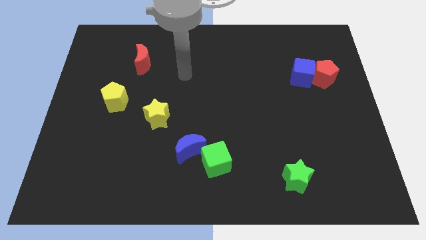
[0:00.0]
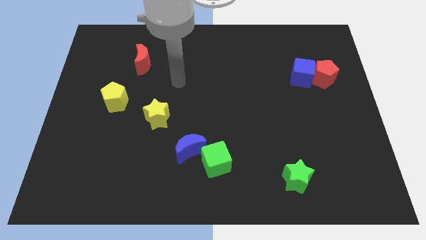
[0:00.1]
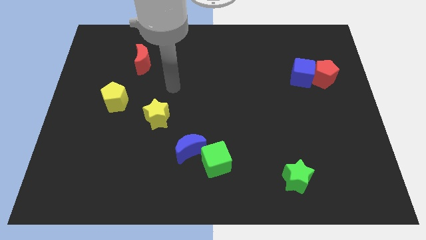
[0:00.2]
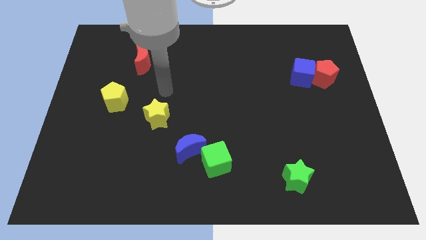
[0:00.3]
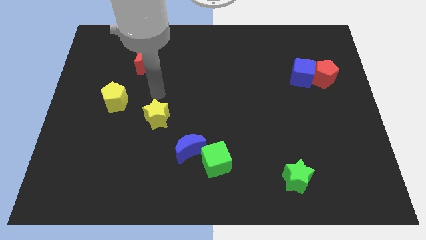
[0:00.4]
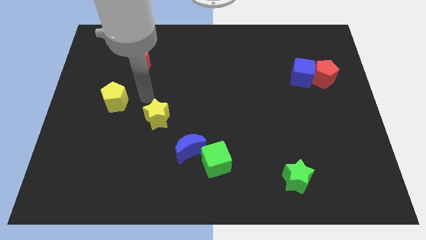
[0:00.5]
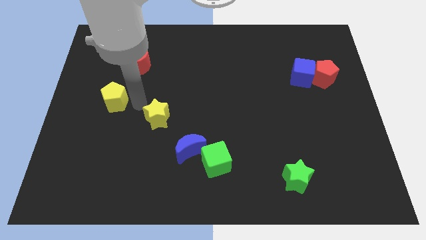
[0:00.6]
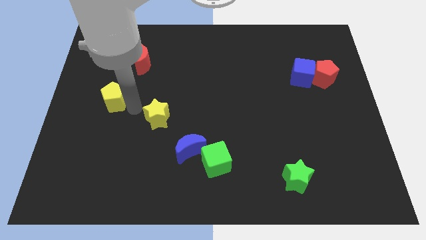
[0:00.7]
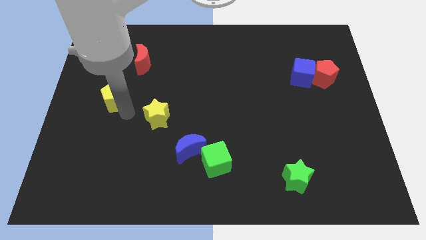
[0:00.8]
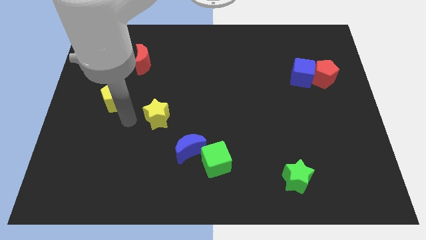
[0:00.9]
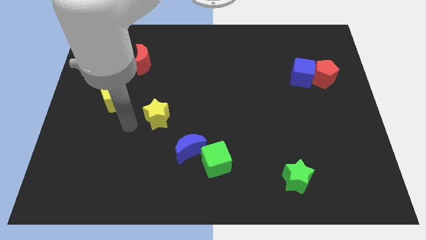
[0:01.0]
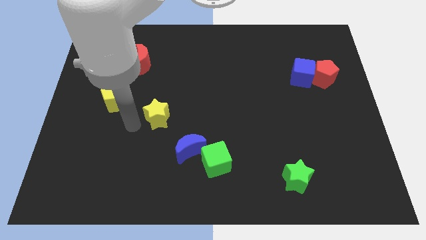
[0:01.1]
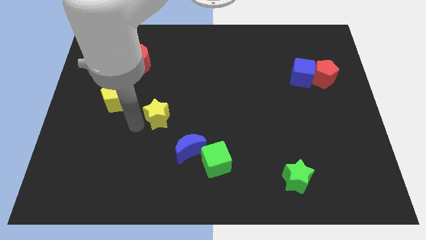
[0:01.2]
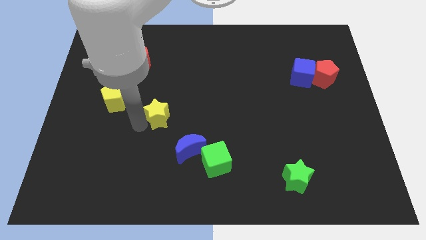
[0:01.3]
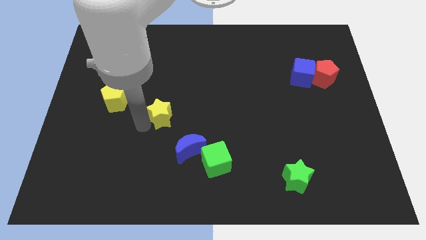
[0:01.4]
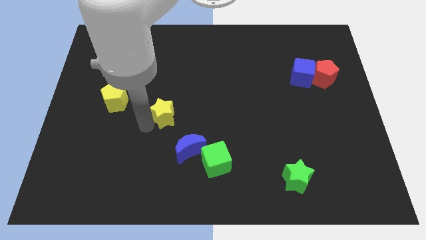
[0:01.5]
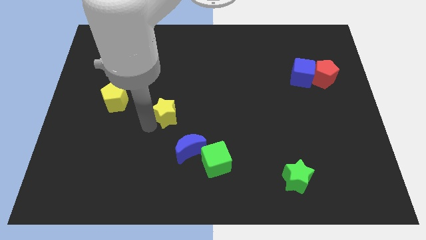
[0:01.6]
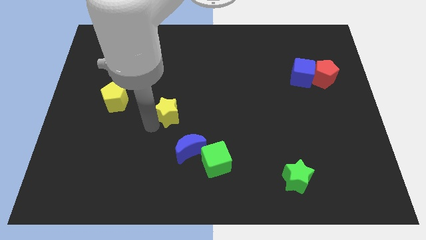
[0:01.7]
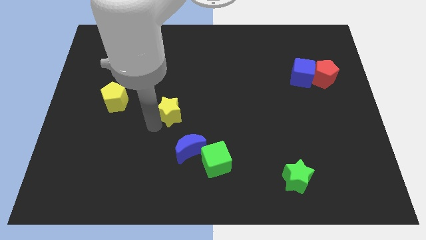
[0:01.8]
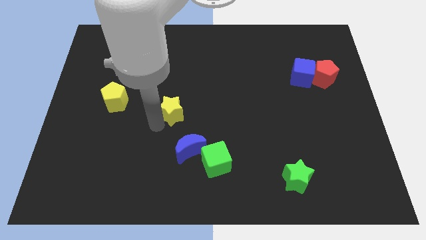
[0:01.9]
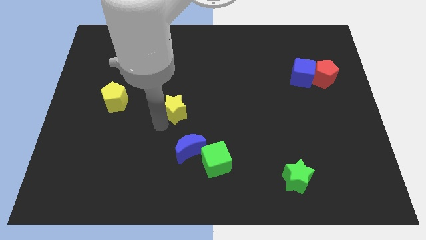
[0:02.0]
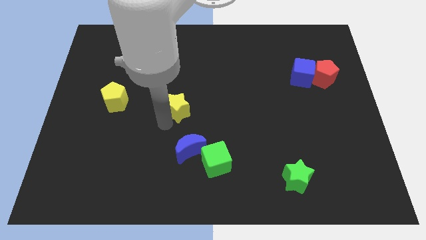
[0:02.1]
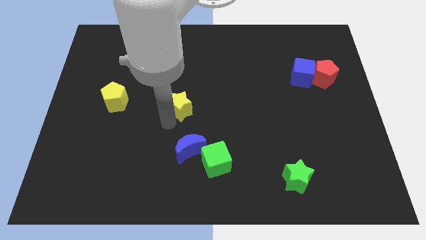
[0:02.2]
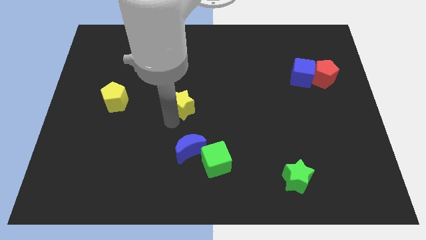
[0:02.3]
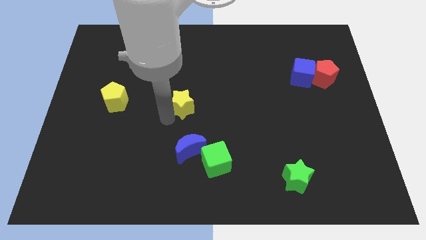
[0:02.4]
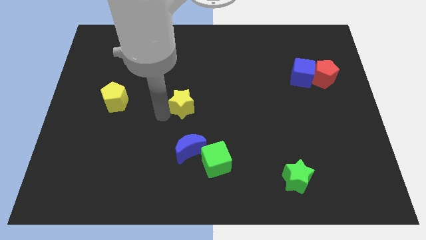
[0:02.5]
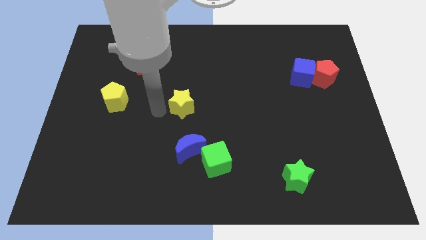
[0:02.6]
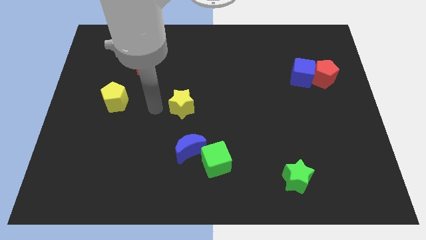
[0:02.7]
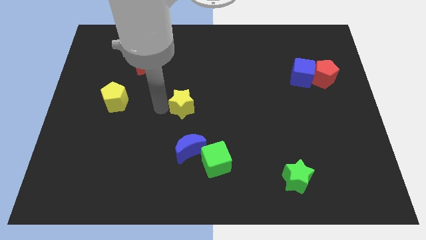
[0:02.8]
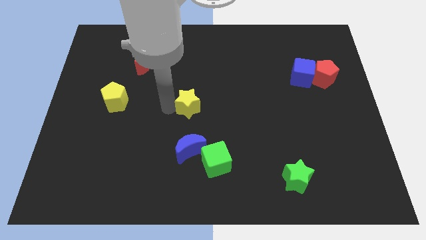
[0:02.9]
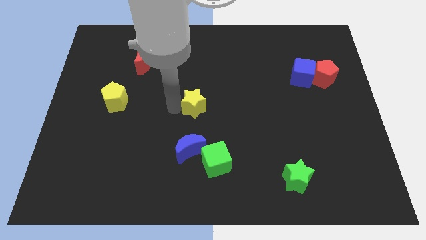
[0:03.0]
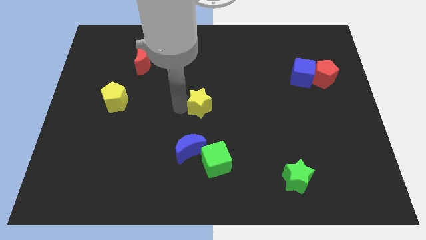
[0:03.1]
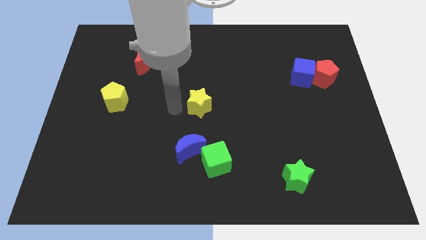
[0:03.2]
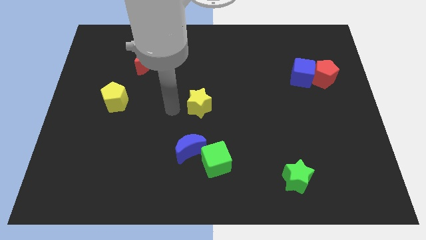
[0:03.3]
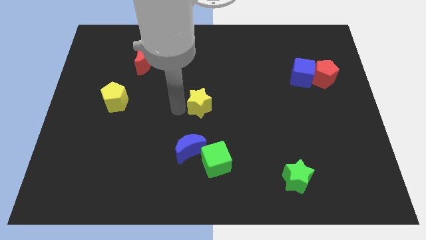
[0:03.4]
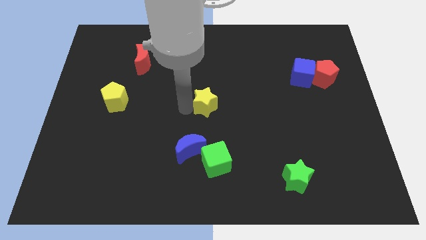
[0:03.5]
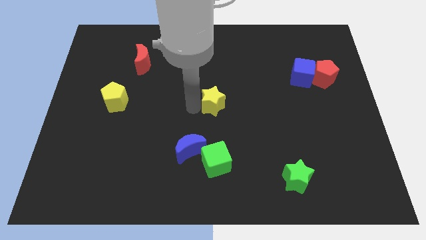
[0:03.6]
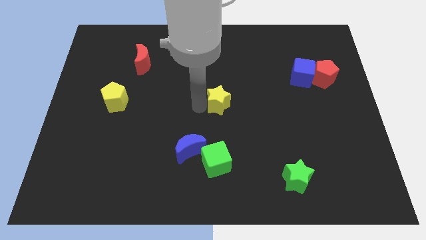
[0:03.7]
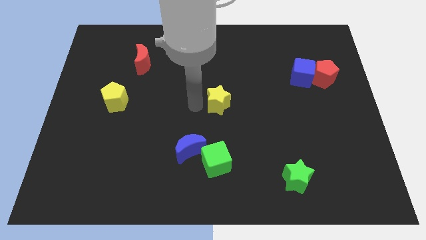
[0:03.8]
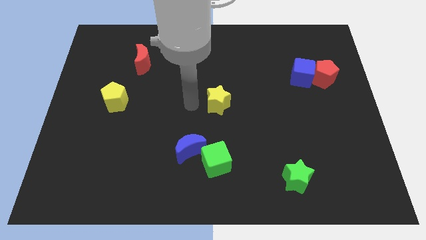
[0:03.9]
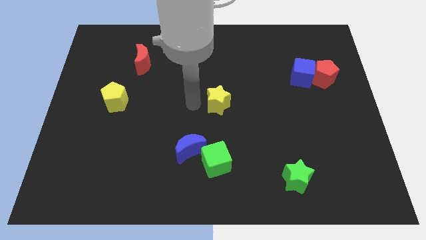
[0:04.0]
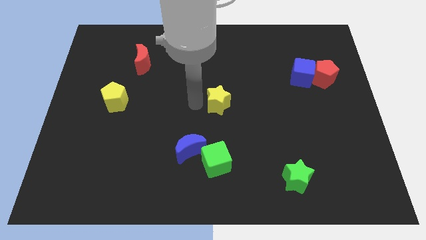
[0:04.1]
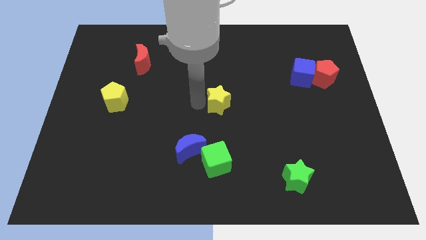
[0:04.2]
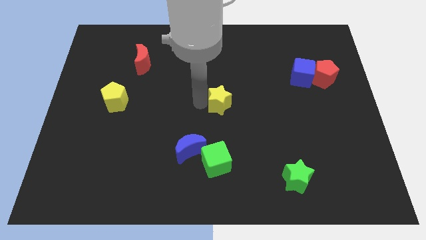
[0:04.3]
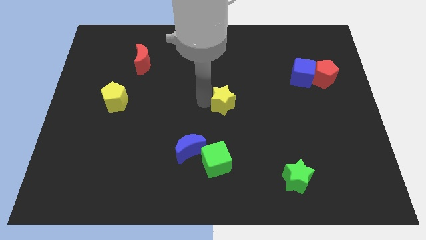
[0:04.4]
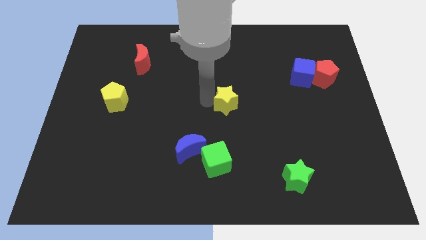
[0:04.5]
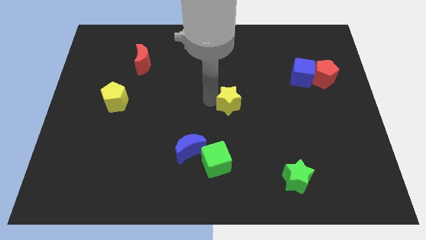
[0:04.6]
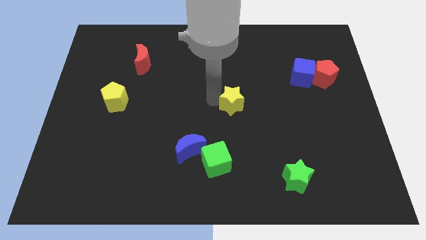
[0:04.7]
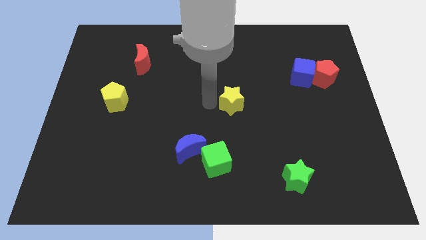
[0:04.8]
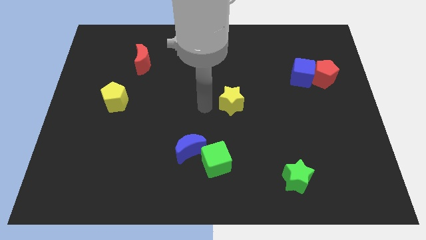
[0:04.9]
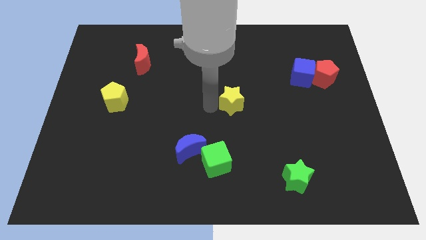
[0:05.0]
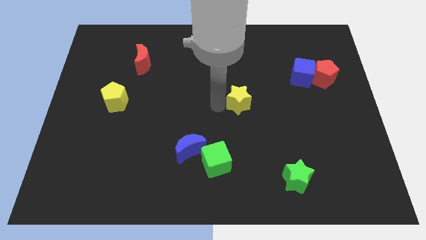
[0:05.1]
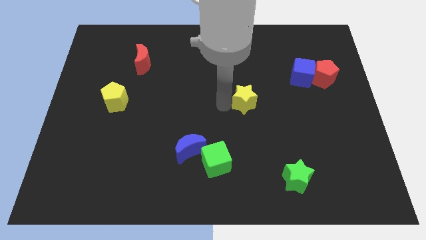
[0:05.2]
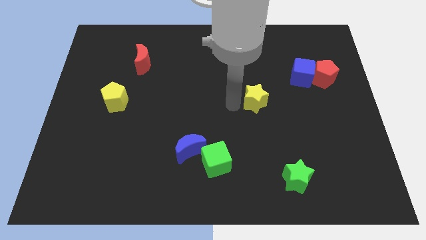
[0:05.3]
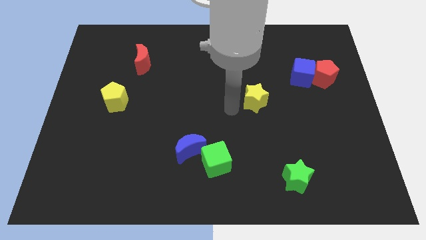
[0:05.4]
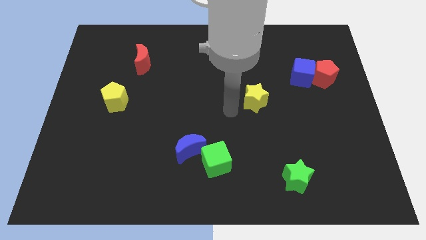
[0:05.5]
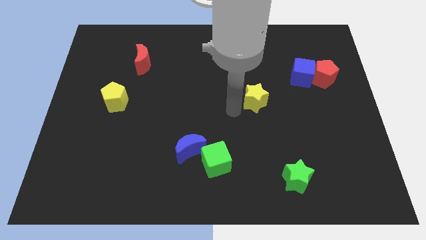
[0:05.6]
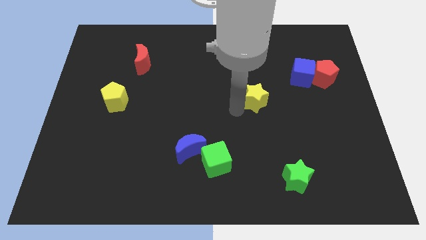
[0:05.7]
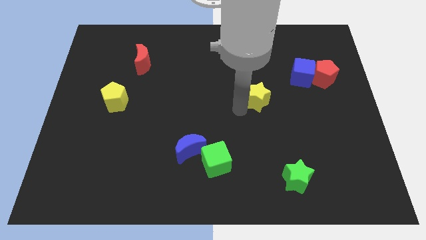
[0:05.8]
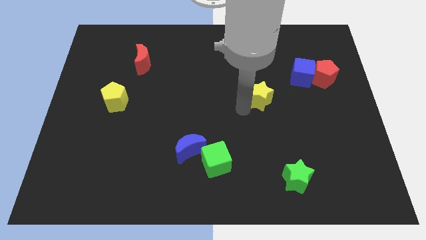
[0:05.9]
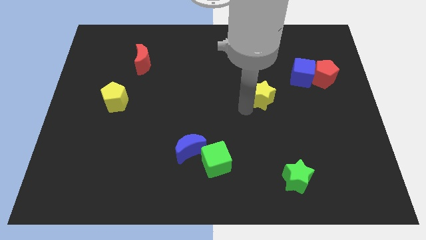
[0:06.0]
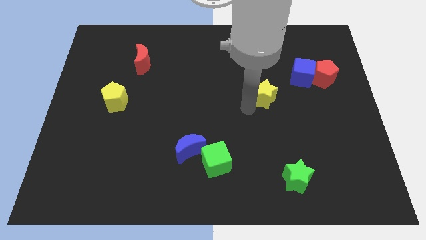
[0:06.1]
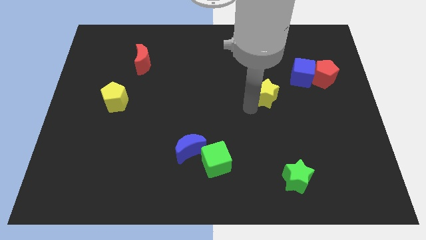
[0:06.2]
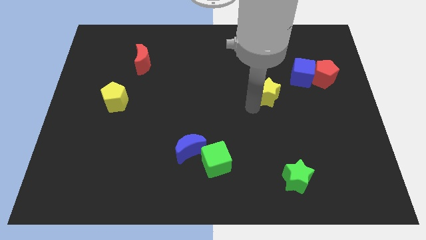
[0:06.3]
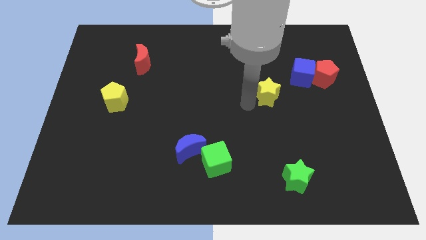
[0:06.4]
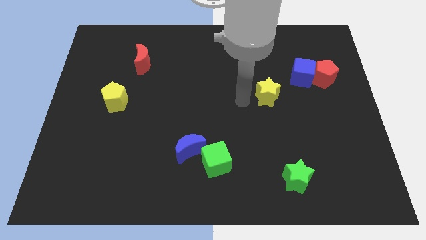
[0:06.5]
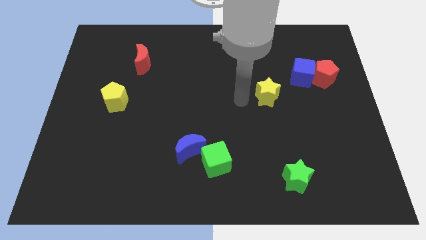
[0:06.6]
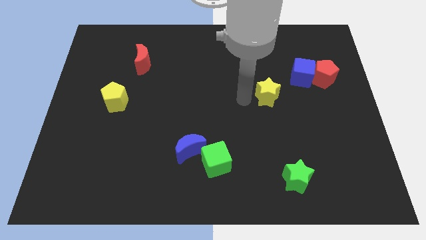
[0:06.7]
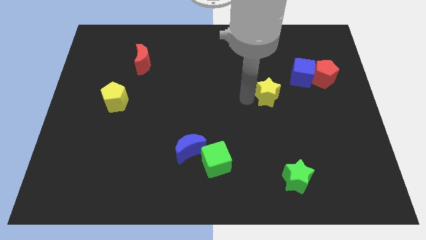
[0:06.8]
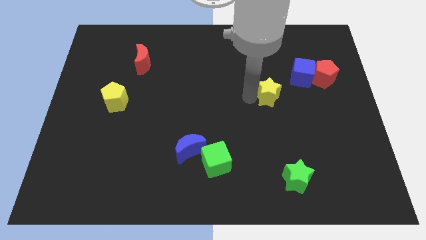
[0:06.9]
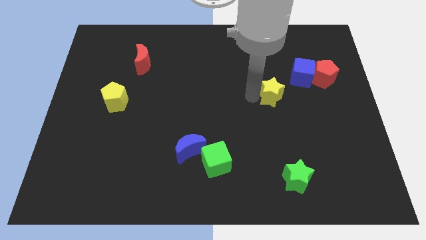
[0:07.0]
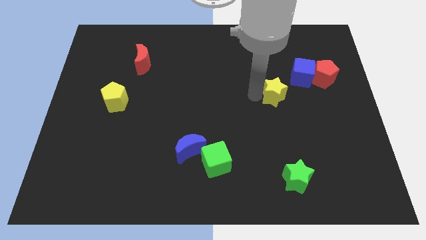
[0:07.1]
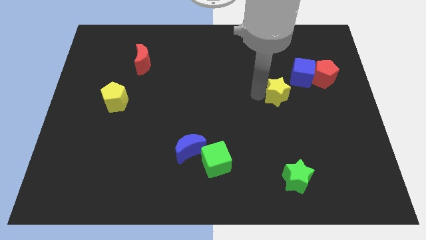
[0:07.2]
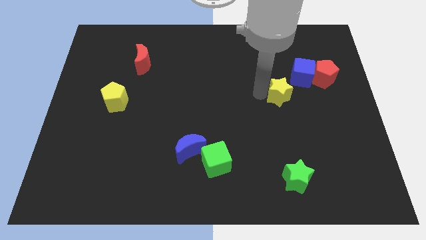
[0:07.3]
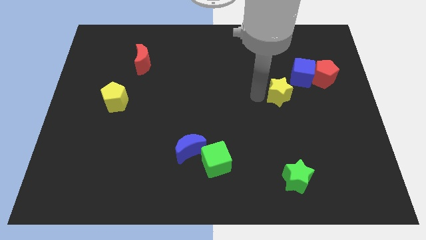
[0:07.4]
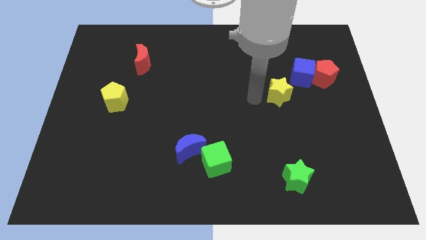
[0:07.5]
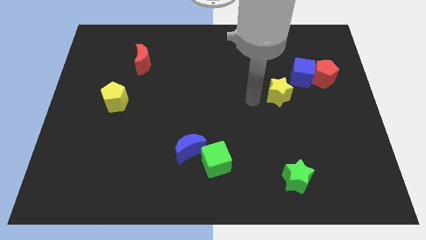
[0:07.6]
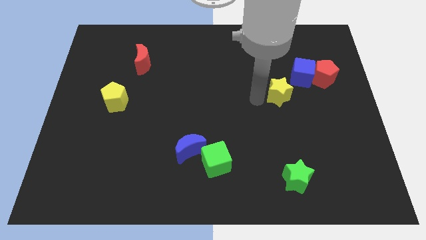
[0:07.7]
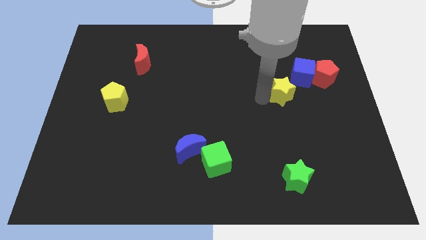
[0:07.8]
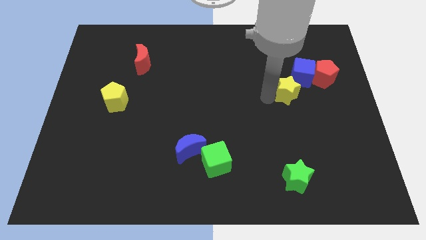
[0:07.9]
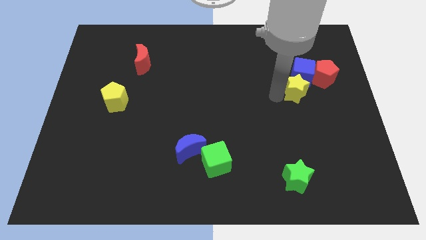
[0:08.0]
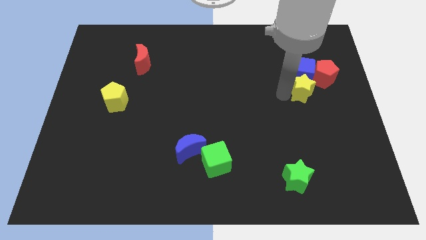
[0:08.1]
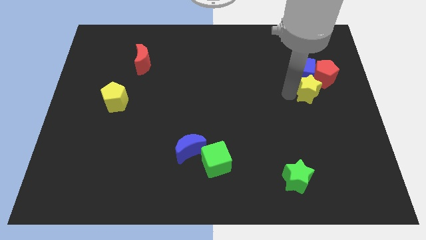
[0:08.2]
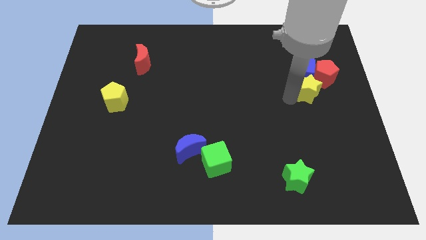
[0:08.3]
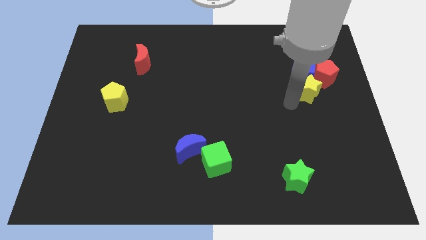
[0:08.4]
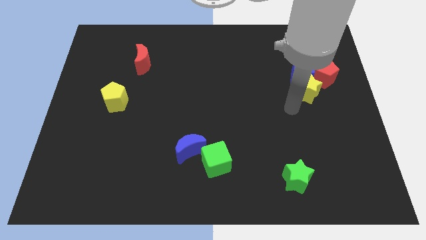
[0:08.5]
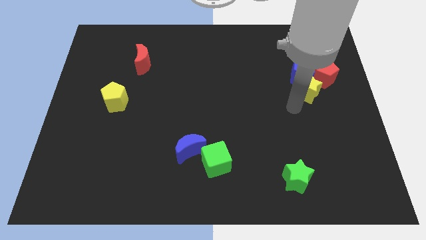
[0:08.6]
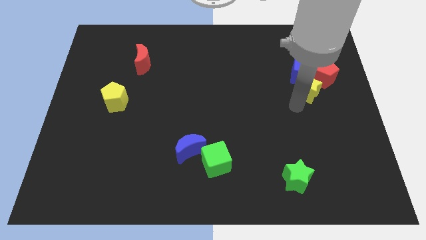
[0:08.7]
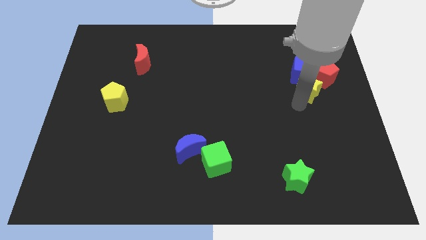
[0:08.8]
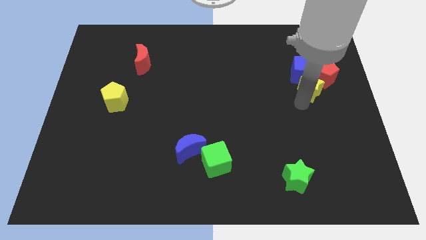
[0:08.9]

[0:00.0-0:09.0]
slide the yellow star towards the red pentagon
